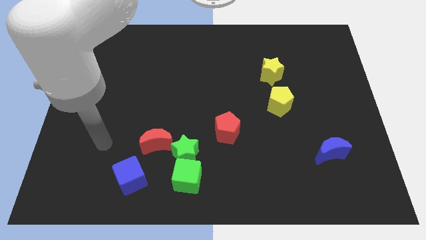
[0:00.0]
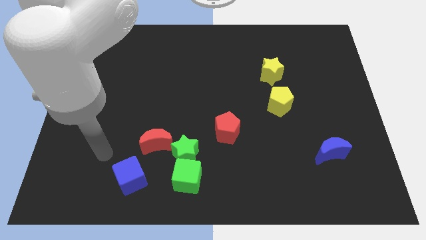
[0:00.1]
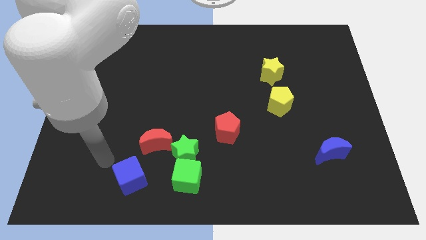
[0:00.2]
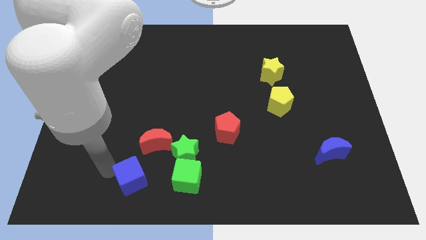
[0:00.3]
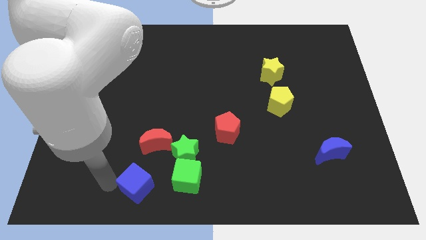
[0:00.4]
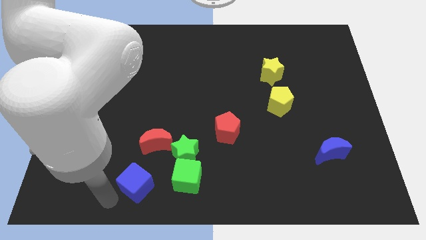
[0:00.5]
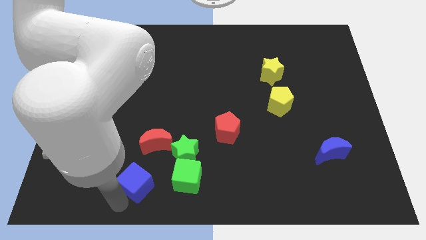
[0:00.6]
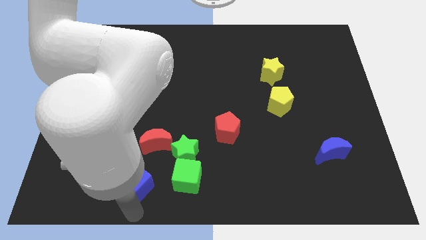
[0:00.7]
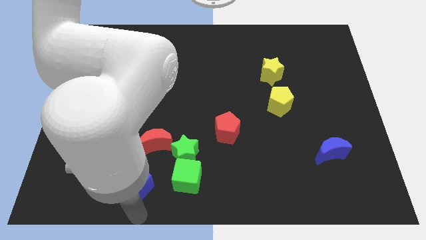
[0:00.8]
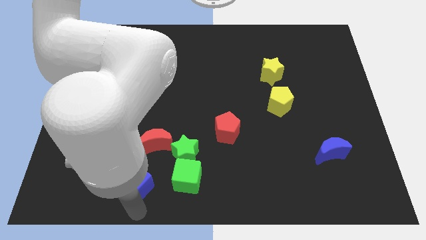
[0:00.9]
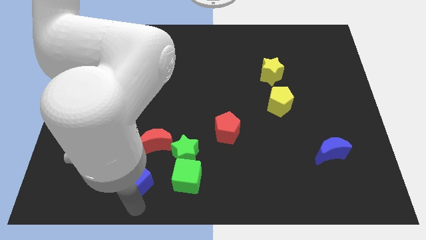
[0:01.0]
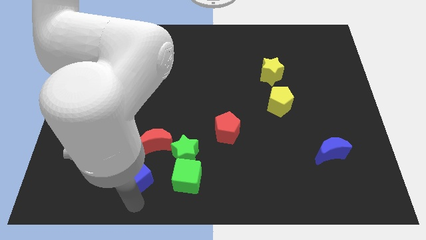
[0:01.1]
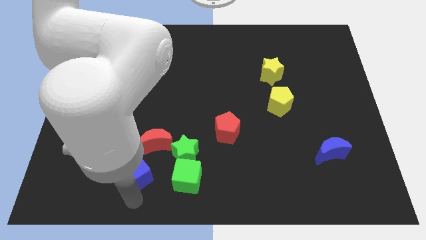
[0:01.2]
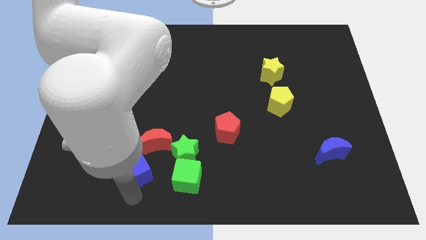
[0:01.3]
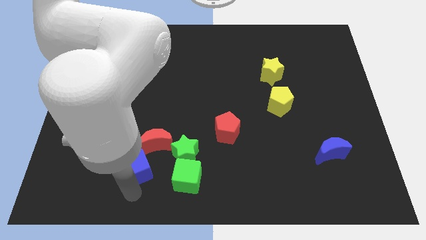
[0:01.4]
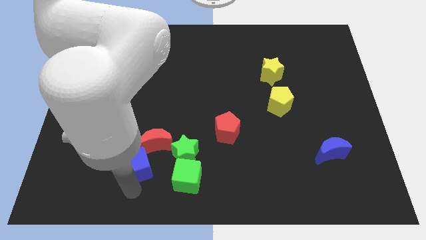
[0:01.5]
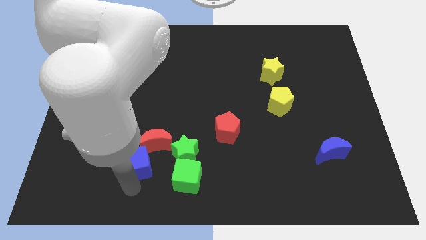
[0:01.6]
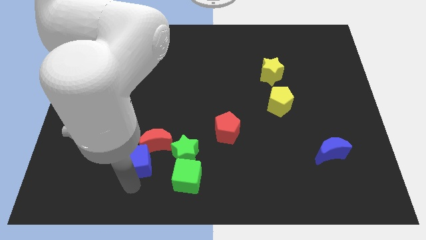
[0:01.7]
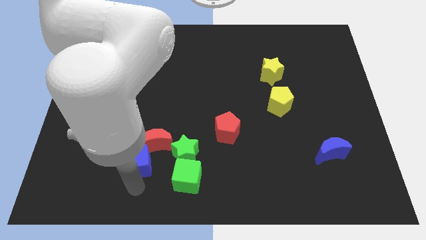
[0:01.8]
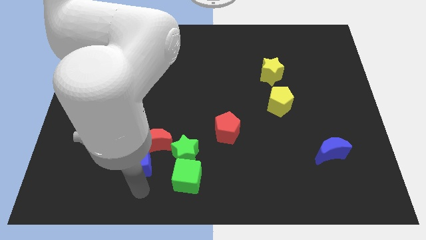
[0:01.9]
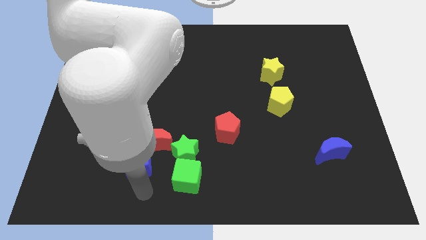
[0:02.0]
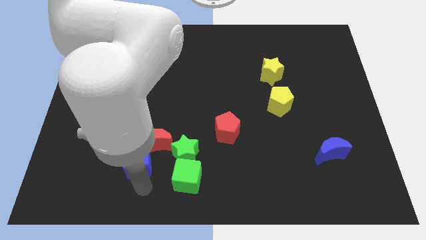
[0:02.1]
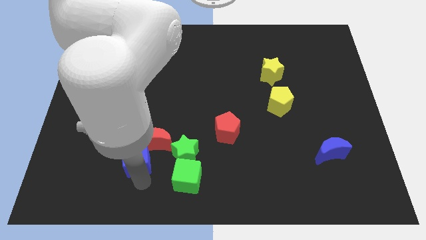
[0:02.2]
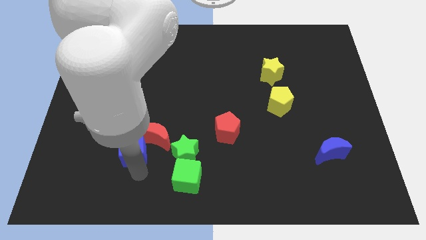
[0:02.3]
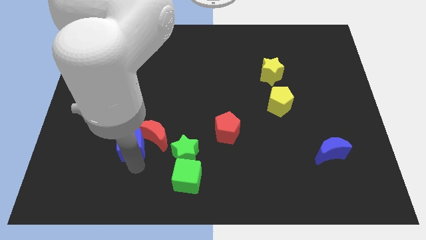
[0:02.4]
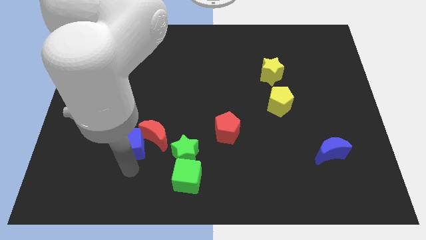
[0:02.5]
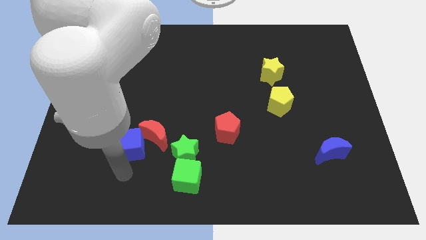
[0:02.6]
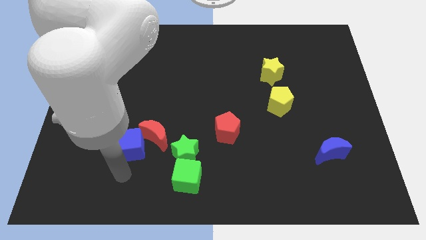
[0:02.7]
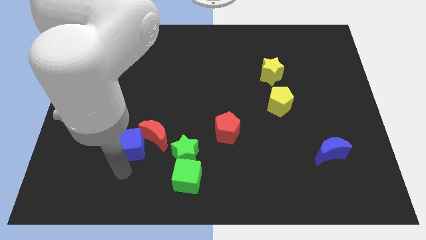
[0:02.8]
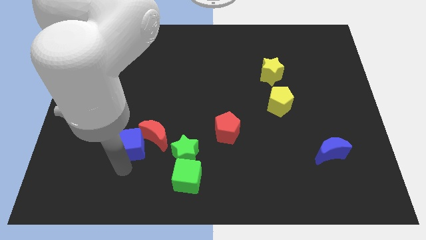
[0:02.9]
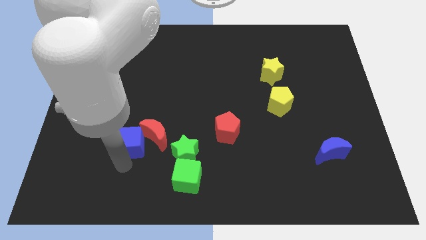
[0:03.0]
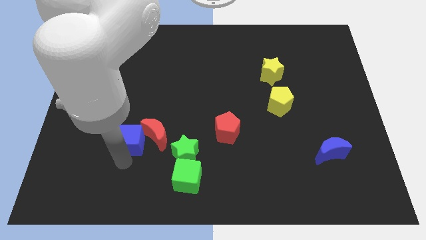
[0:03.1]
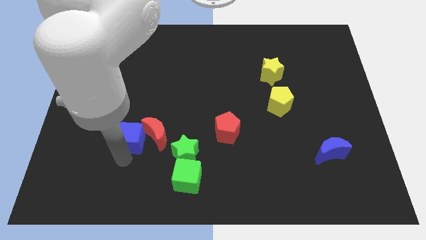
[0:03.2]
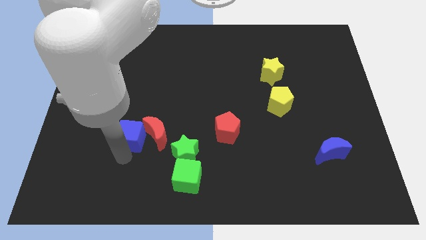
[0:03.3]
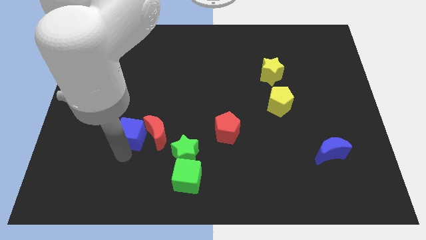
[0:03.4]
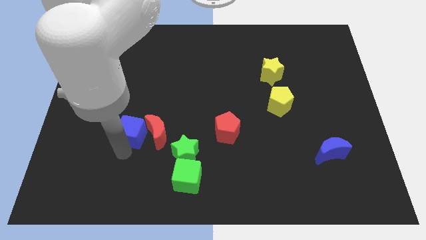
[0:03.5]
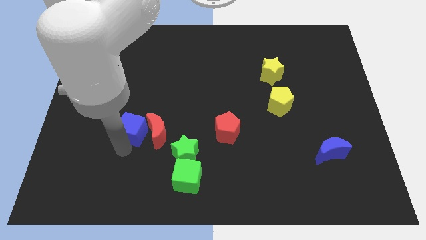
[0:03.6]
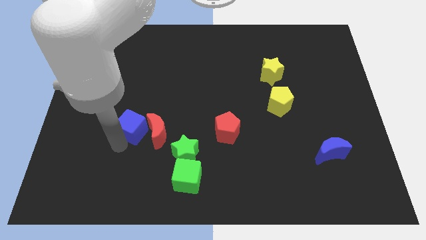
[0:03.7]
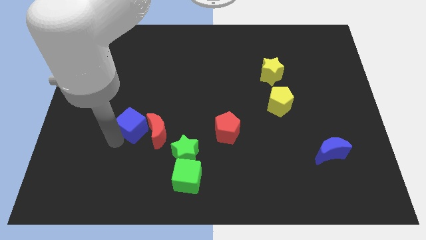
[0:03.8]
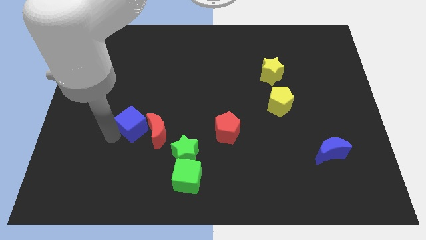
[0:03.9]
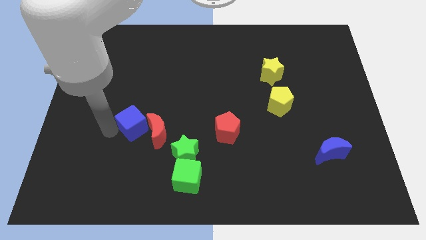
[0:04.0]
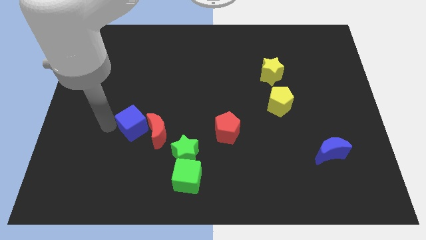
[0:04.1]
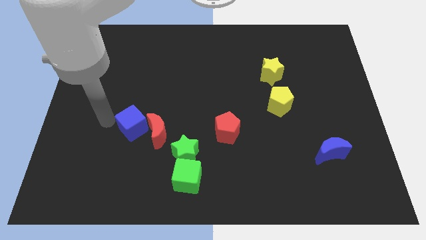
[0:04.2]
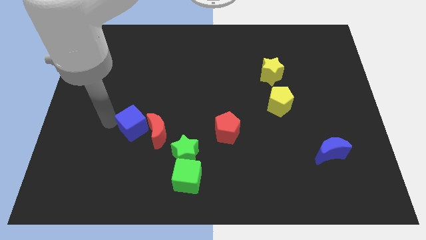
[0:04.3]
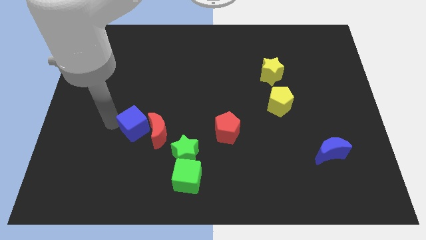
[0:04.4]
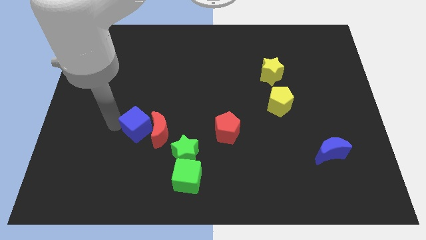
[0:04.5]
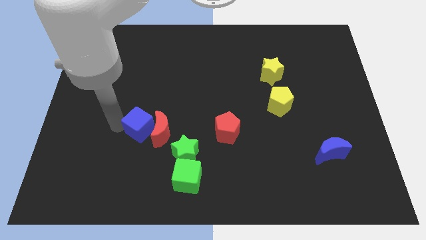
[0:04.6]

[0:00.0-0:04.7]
push the blue cube diagonally up and to the left of the green star

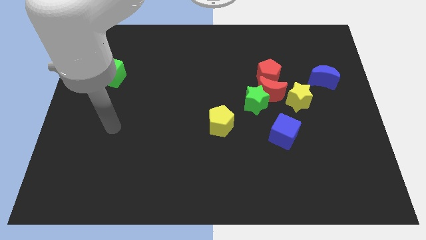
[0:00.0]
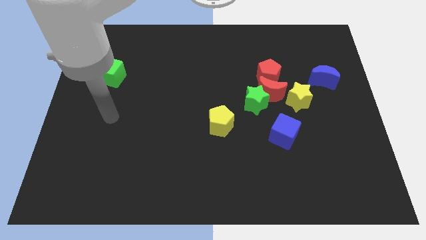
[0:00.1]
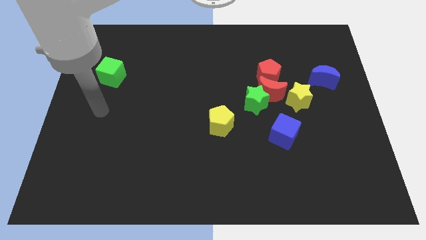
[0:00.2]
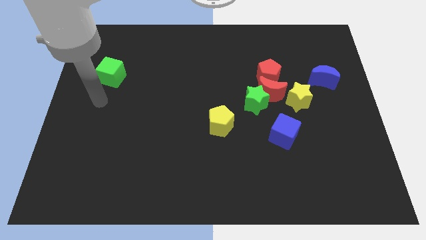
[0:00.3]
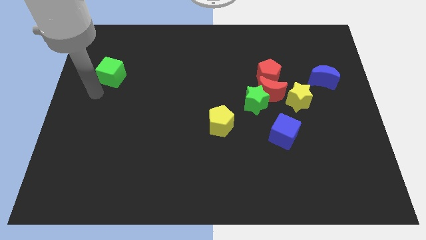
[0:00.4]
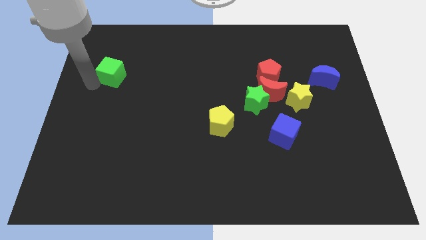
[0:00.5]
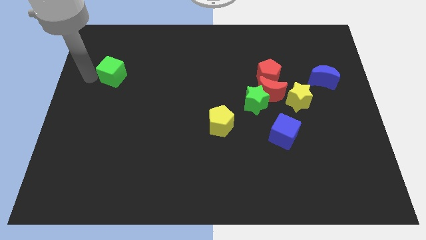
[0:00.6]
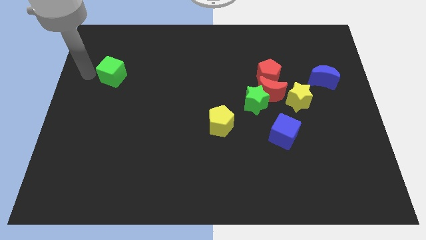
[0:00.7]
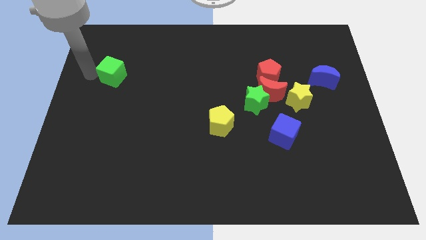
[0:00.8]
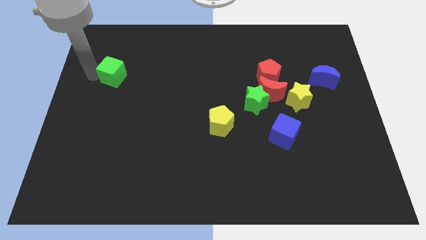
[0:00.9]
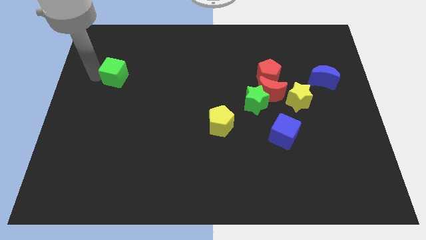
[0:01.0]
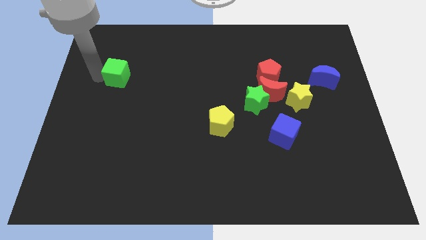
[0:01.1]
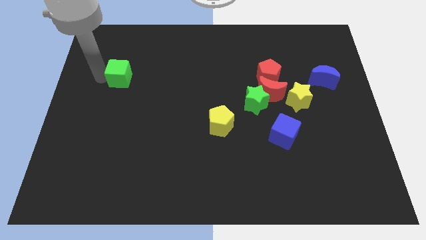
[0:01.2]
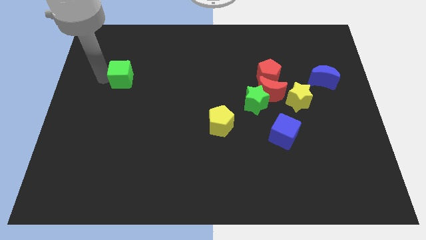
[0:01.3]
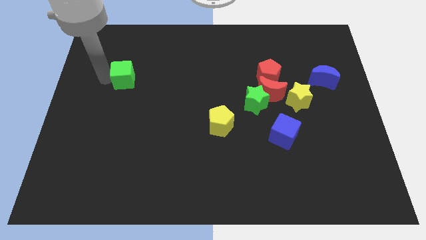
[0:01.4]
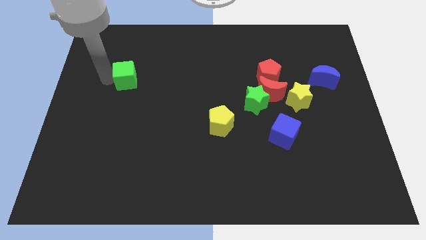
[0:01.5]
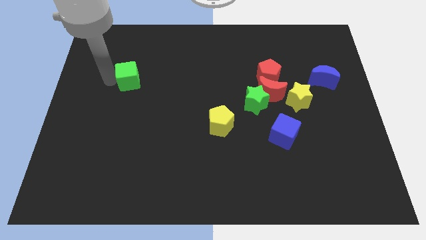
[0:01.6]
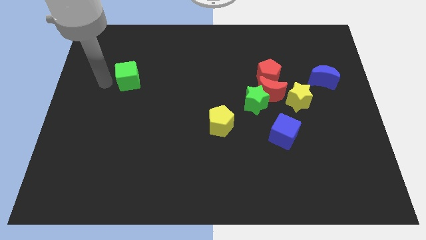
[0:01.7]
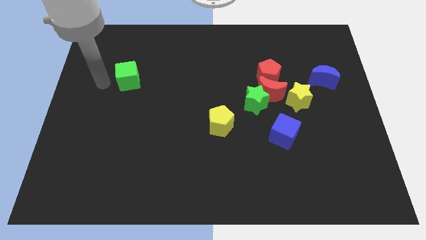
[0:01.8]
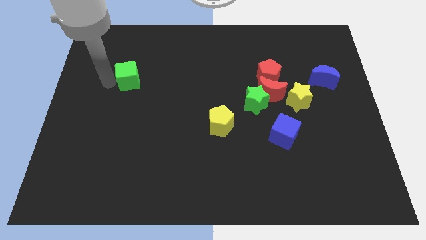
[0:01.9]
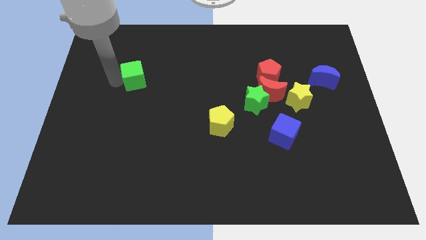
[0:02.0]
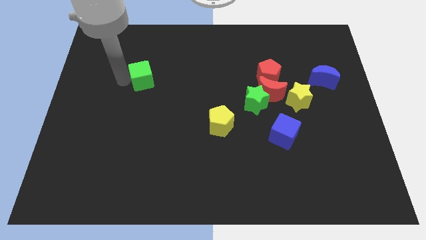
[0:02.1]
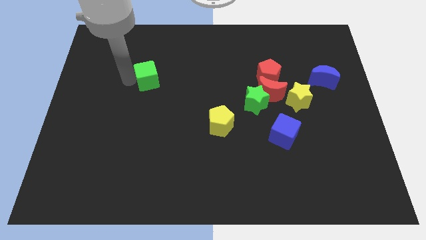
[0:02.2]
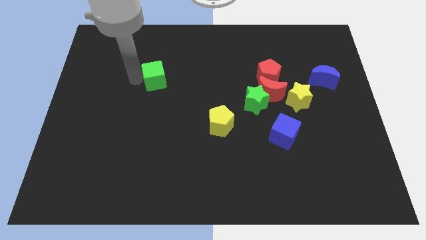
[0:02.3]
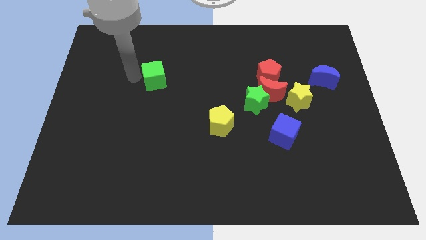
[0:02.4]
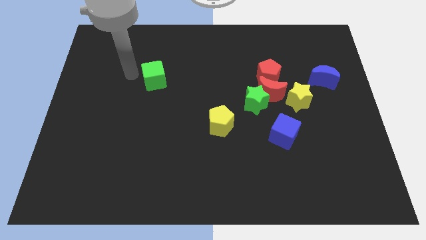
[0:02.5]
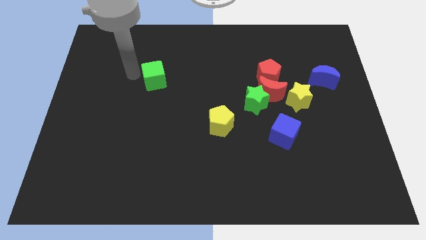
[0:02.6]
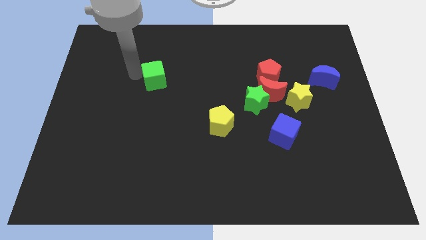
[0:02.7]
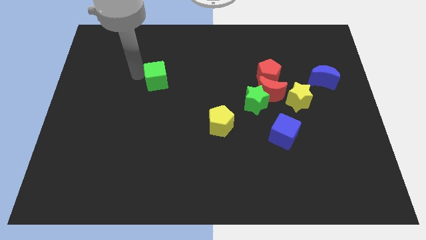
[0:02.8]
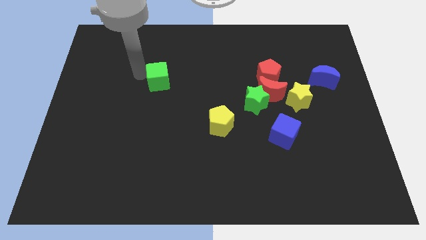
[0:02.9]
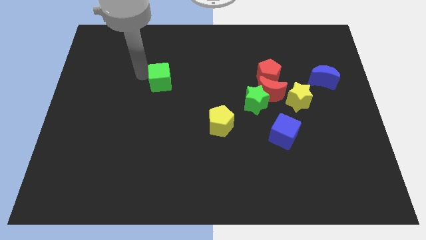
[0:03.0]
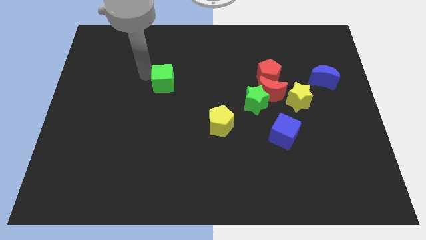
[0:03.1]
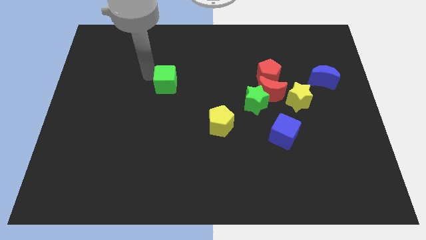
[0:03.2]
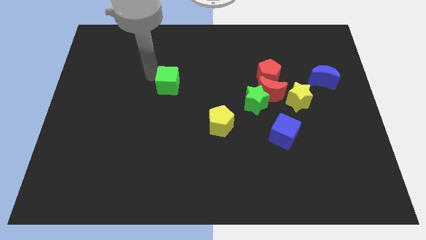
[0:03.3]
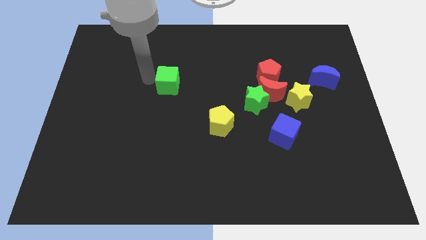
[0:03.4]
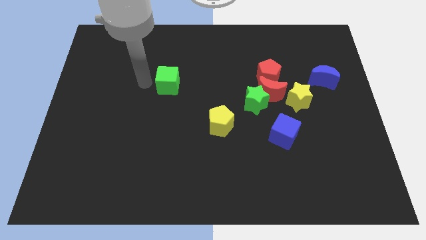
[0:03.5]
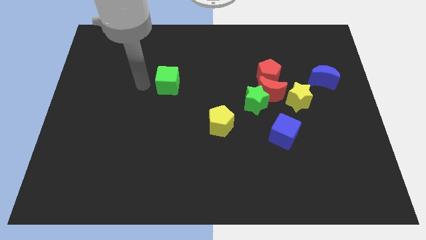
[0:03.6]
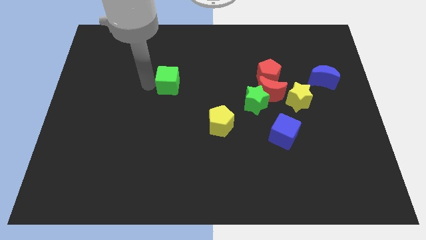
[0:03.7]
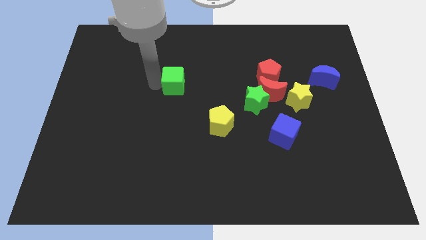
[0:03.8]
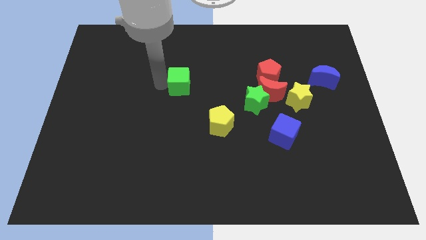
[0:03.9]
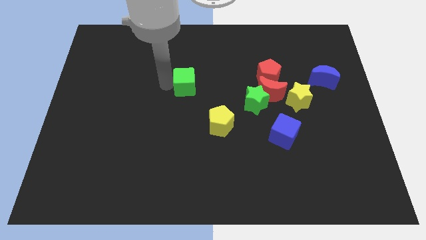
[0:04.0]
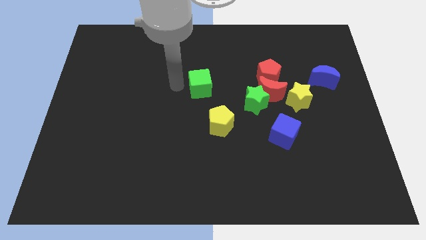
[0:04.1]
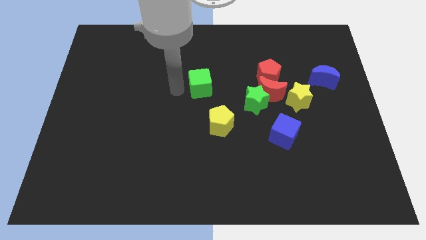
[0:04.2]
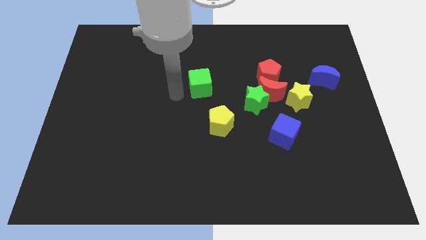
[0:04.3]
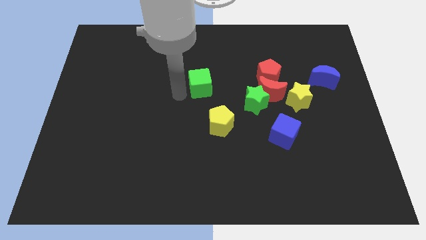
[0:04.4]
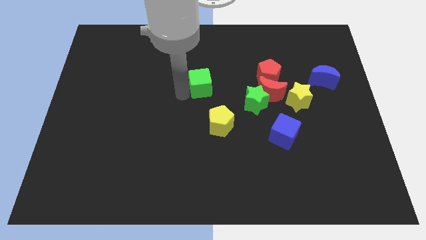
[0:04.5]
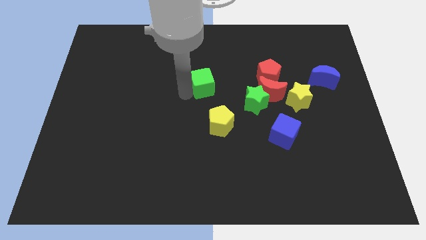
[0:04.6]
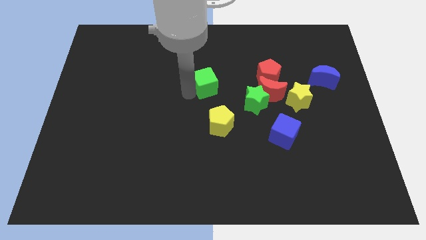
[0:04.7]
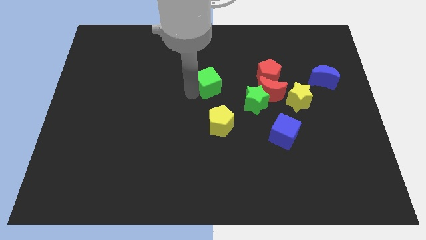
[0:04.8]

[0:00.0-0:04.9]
move the green cube just left of the red pentagon
